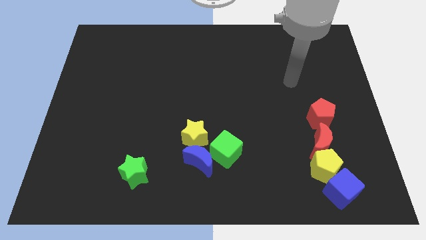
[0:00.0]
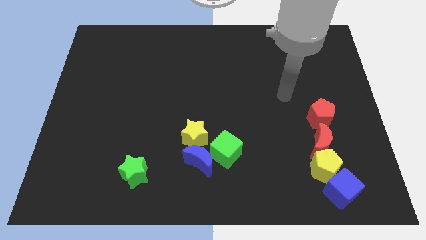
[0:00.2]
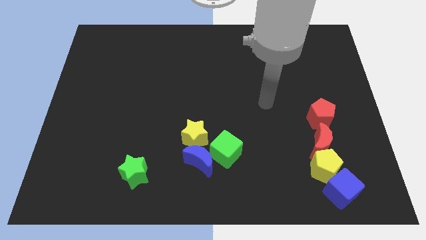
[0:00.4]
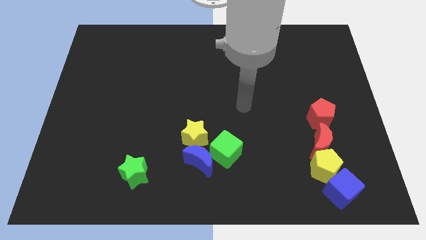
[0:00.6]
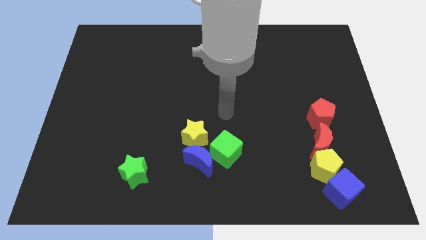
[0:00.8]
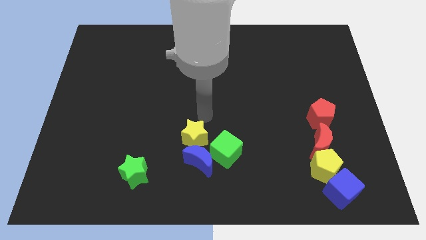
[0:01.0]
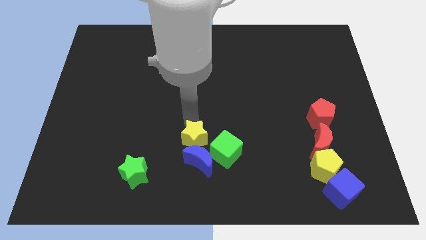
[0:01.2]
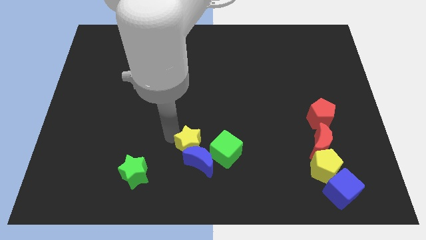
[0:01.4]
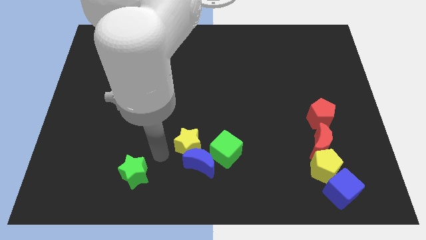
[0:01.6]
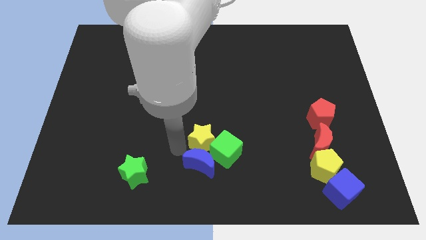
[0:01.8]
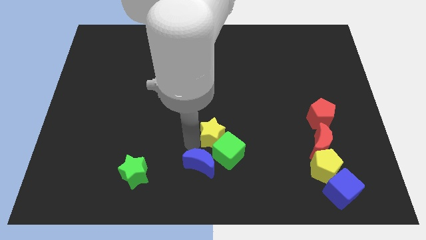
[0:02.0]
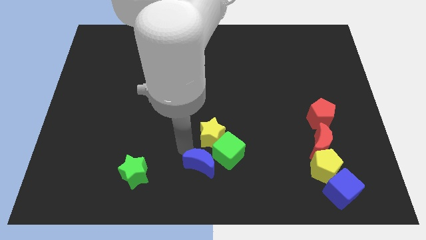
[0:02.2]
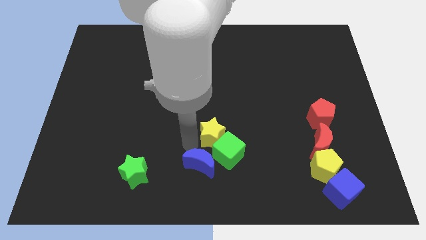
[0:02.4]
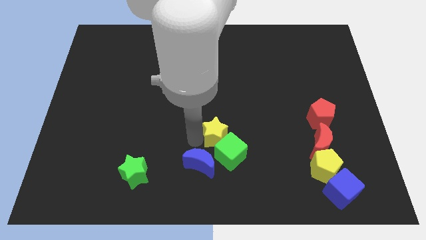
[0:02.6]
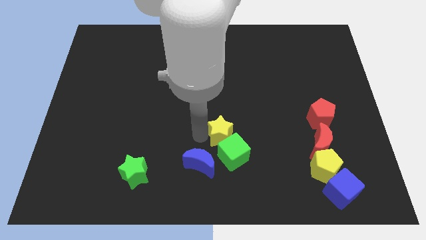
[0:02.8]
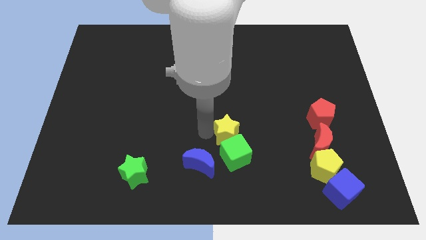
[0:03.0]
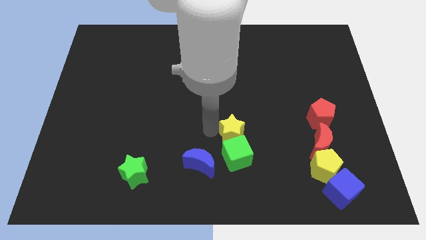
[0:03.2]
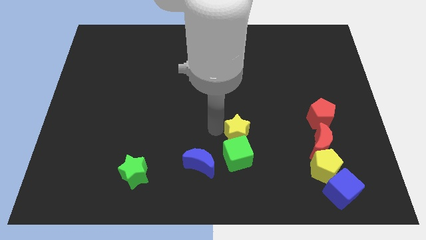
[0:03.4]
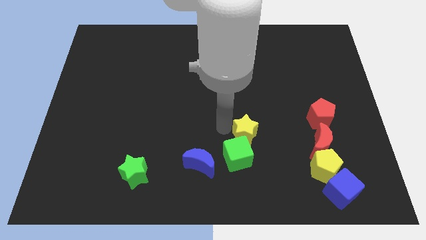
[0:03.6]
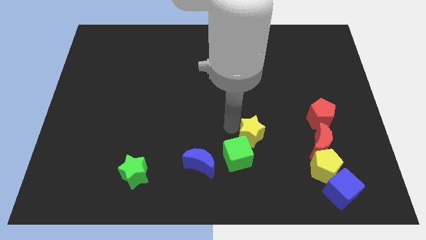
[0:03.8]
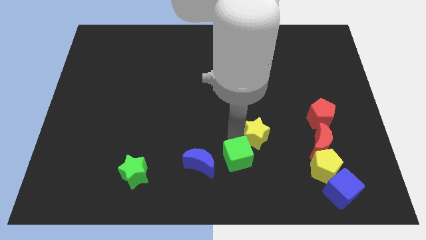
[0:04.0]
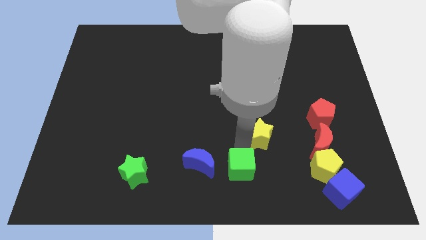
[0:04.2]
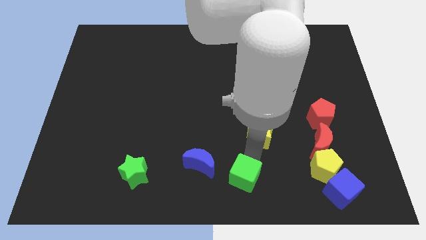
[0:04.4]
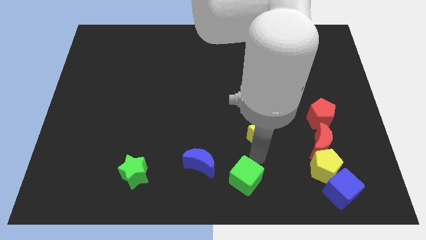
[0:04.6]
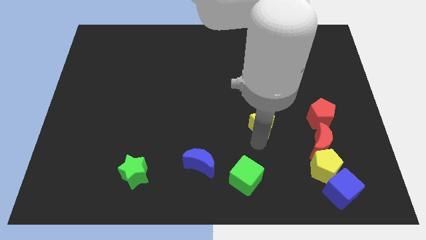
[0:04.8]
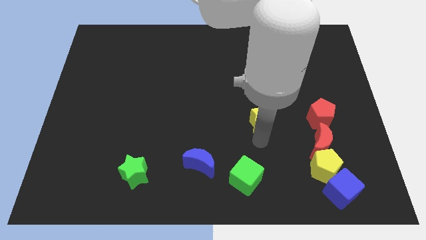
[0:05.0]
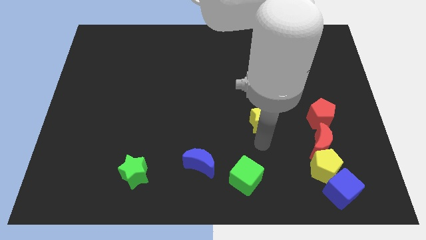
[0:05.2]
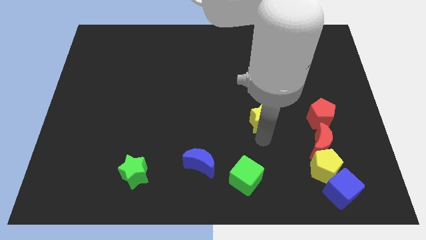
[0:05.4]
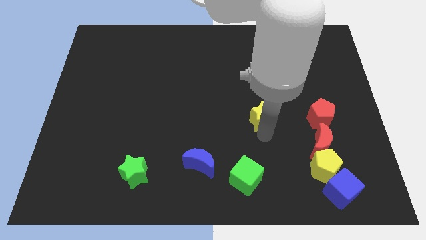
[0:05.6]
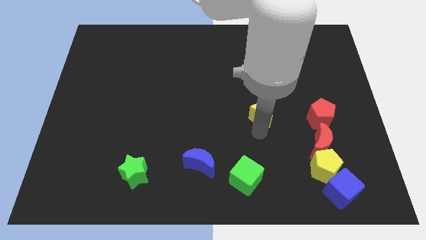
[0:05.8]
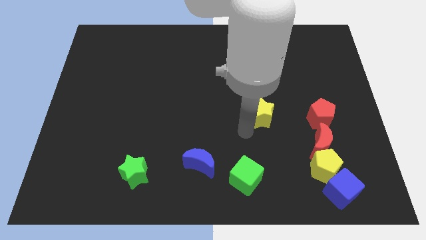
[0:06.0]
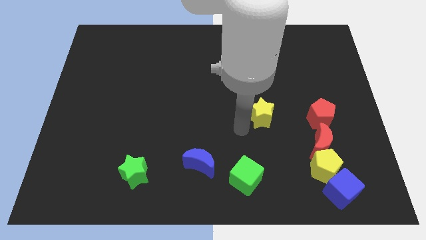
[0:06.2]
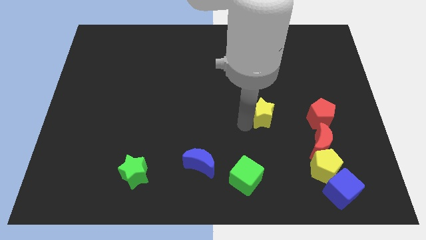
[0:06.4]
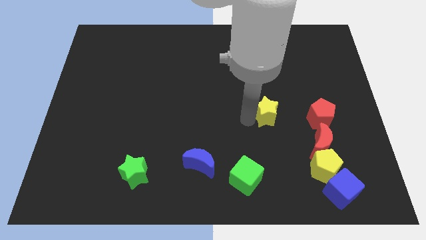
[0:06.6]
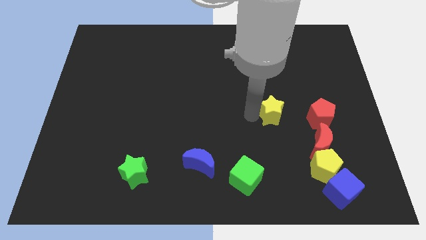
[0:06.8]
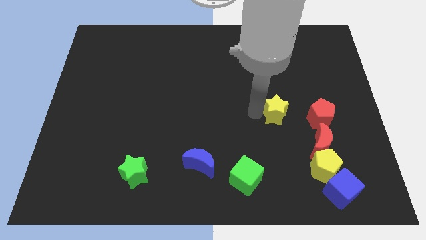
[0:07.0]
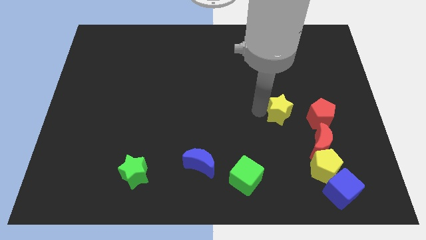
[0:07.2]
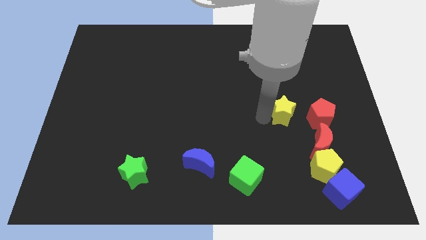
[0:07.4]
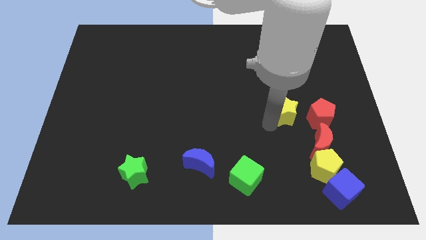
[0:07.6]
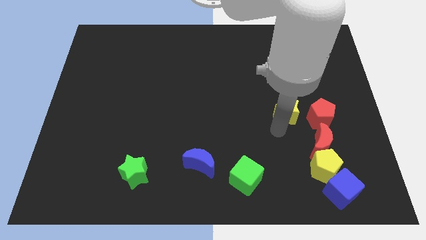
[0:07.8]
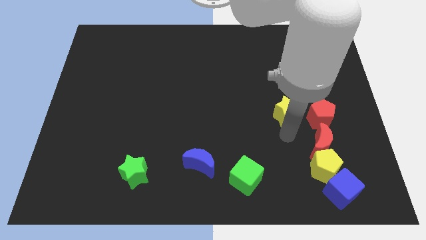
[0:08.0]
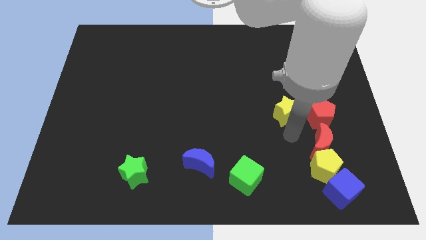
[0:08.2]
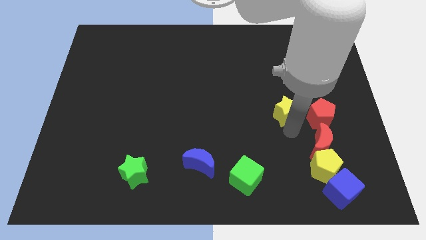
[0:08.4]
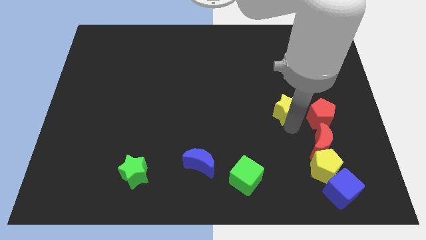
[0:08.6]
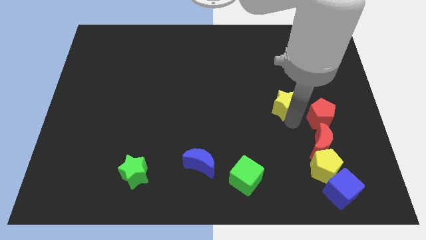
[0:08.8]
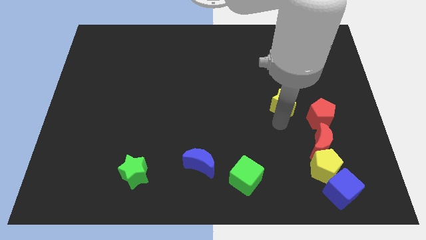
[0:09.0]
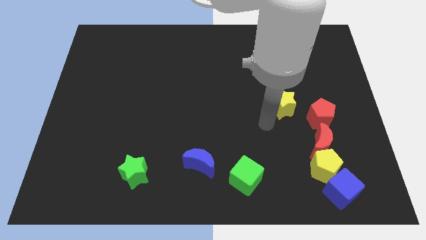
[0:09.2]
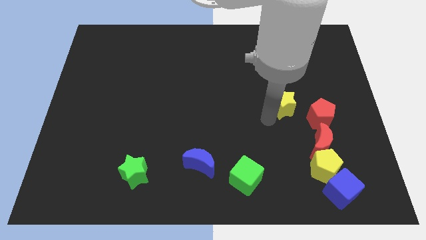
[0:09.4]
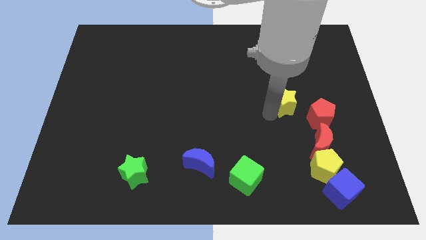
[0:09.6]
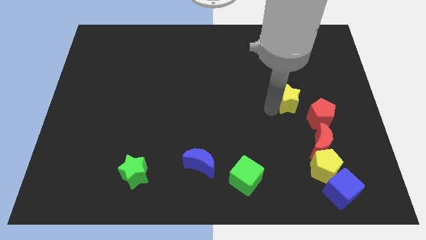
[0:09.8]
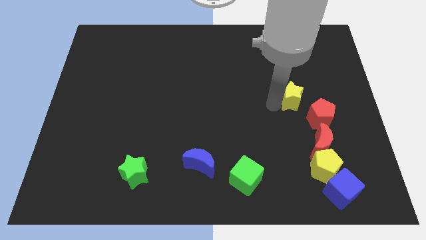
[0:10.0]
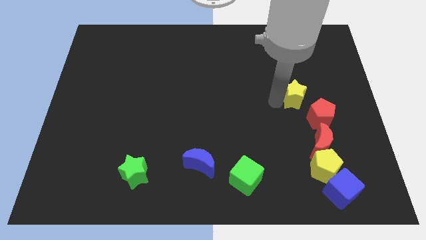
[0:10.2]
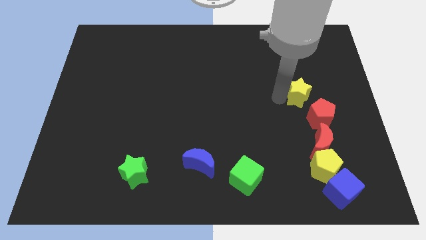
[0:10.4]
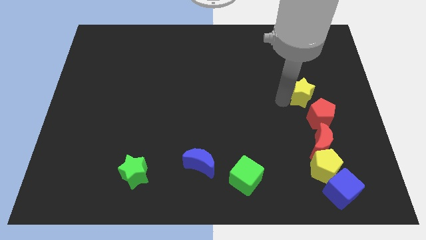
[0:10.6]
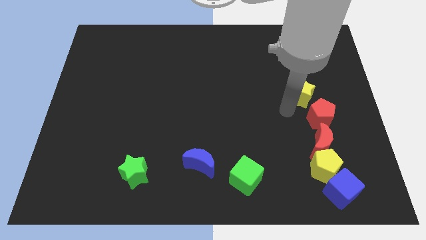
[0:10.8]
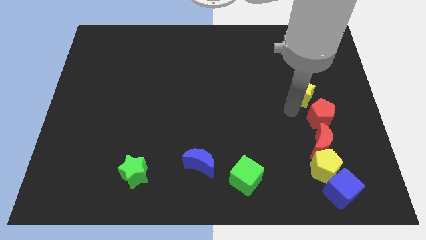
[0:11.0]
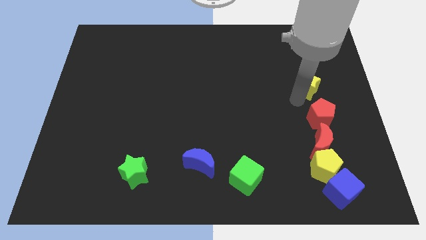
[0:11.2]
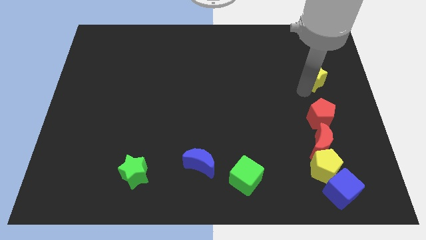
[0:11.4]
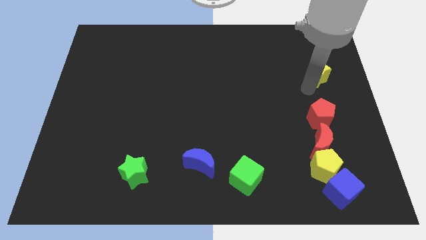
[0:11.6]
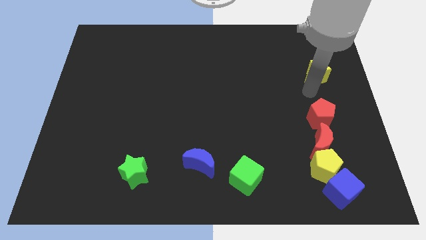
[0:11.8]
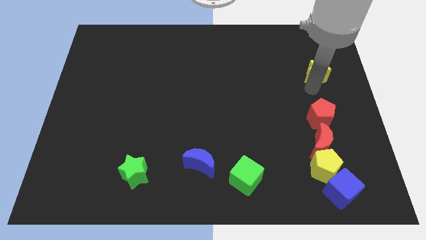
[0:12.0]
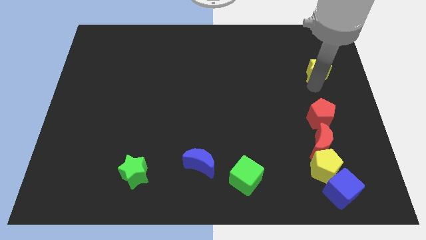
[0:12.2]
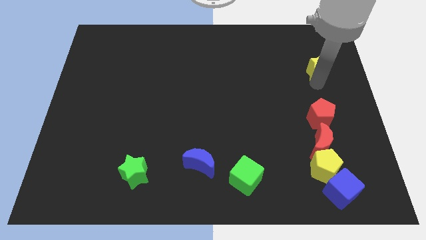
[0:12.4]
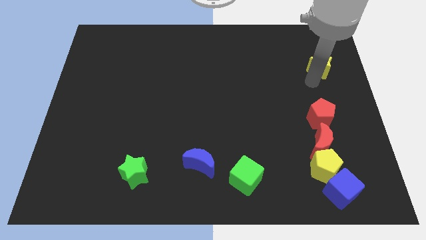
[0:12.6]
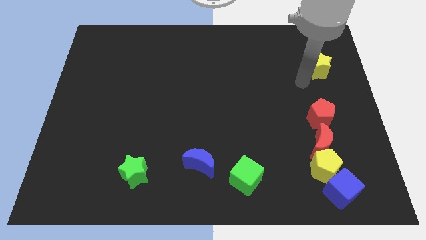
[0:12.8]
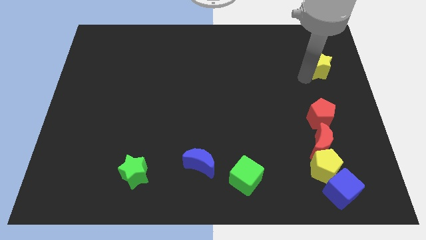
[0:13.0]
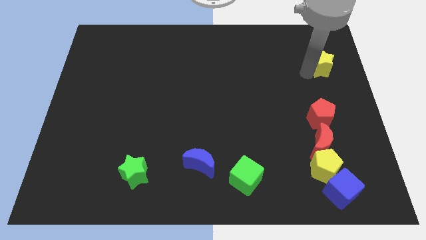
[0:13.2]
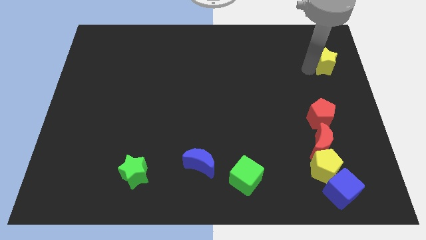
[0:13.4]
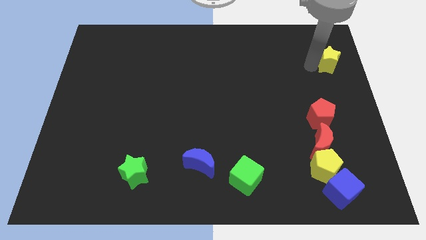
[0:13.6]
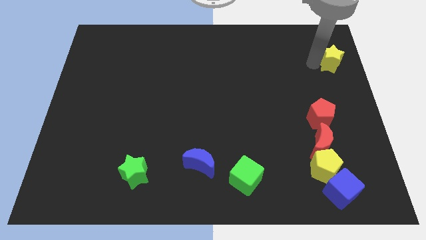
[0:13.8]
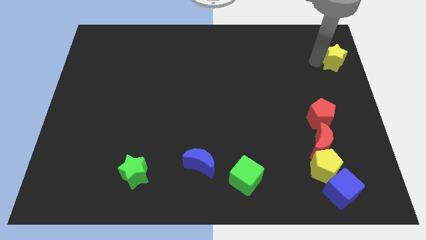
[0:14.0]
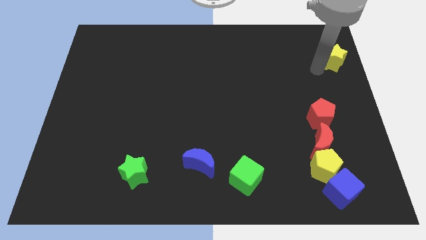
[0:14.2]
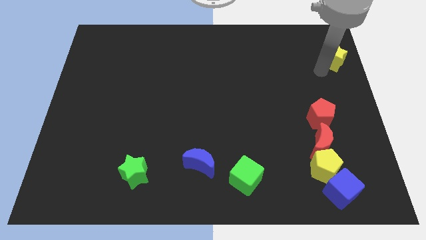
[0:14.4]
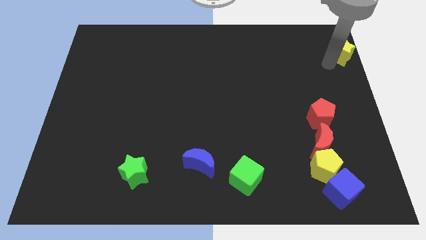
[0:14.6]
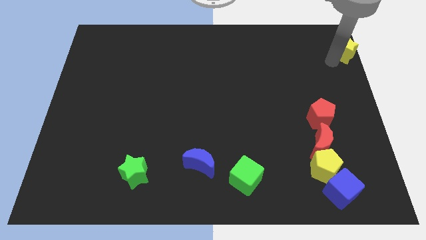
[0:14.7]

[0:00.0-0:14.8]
move the yellow star to the upper right corner
